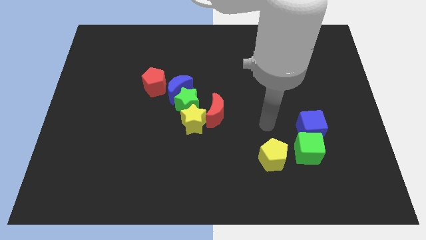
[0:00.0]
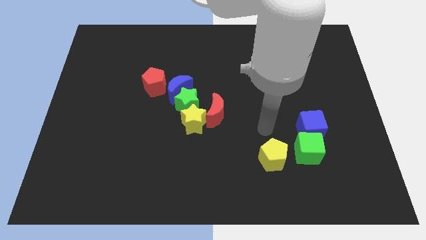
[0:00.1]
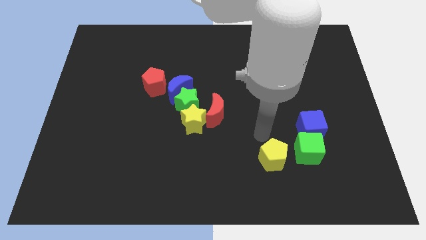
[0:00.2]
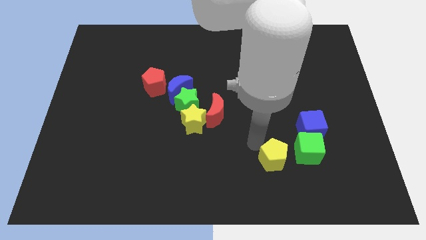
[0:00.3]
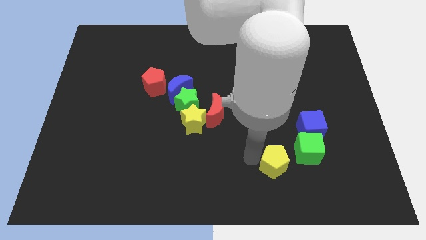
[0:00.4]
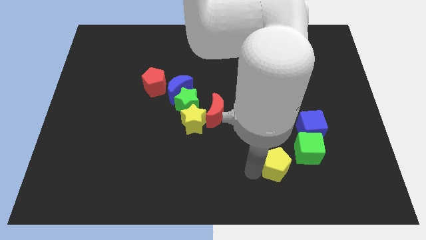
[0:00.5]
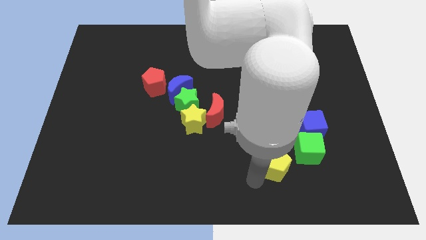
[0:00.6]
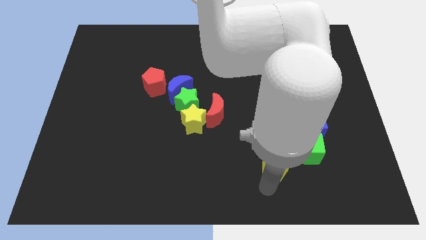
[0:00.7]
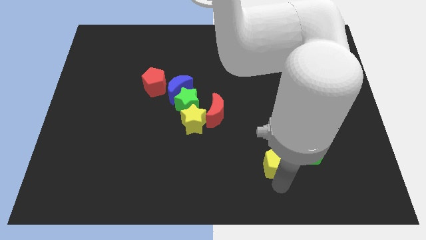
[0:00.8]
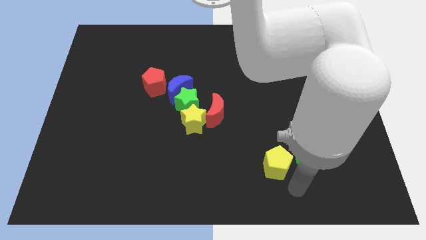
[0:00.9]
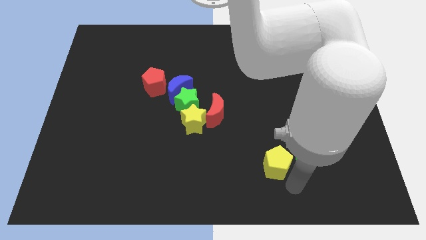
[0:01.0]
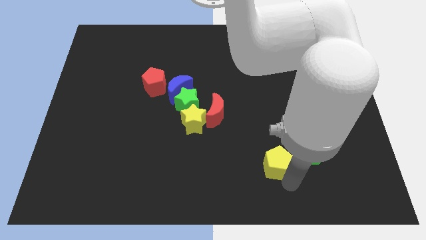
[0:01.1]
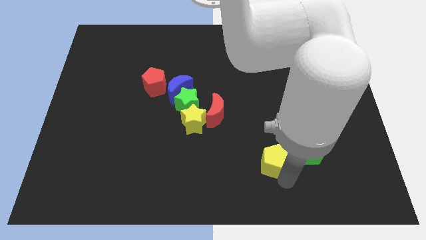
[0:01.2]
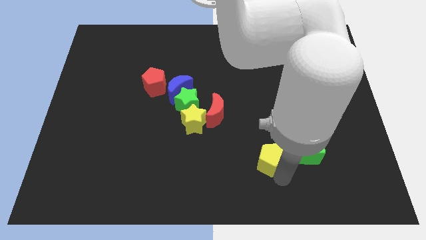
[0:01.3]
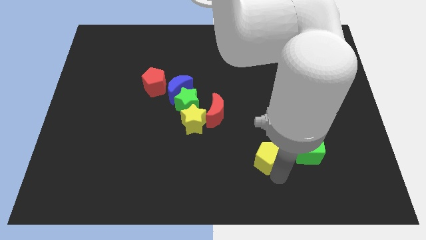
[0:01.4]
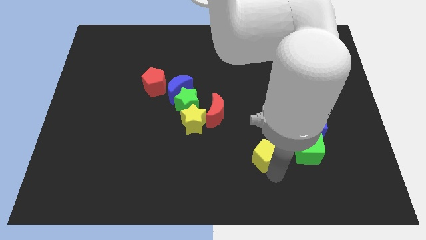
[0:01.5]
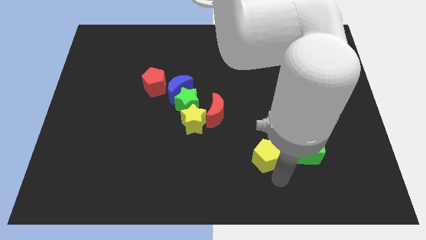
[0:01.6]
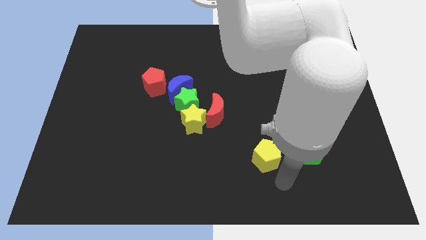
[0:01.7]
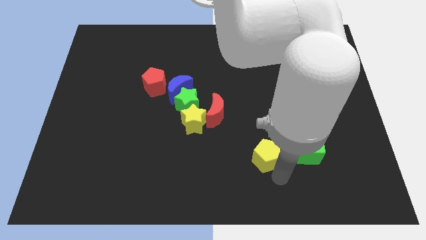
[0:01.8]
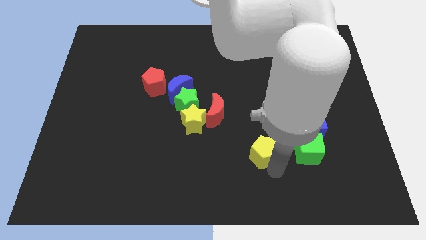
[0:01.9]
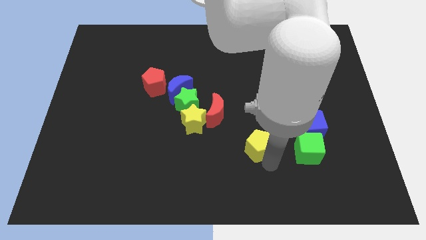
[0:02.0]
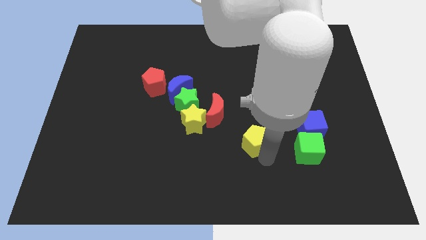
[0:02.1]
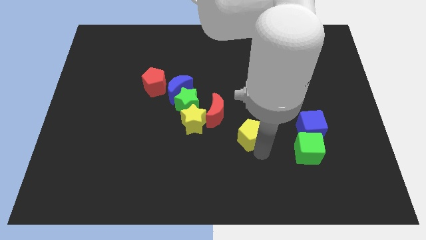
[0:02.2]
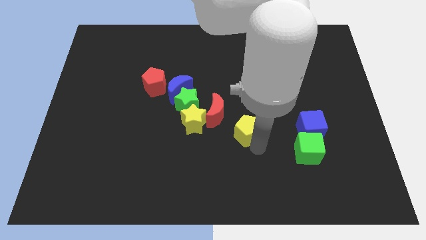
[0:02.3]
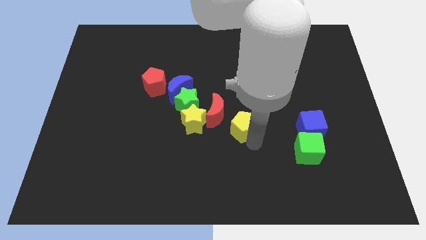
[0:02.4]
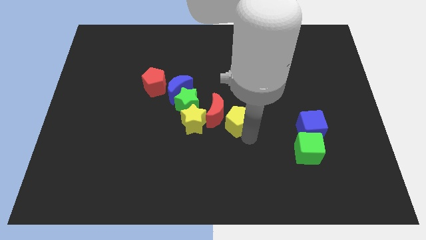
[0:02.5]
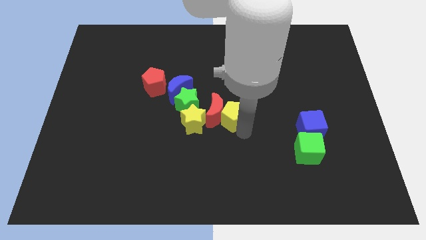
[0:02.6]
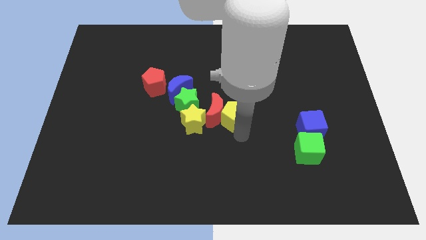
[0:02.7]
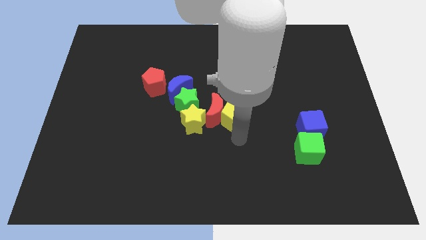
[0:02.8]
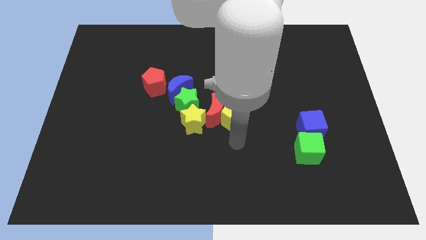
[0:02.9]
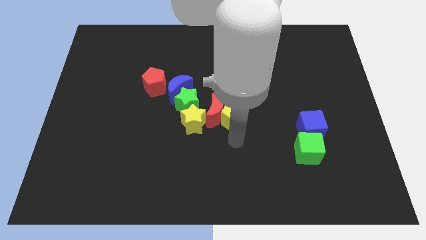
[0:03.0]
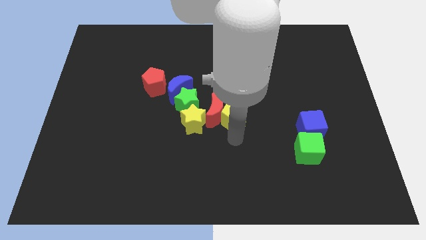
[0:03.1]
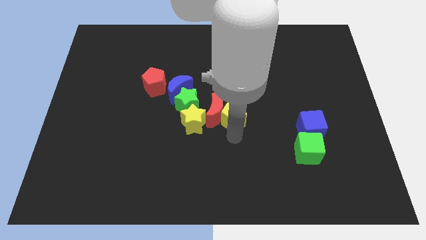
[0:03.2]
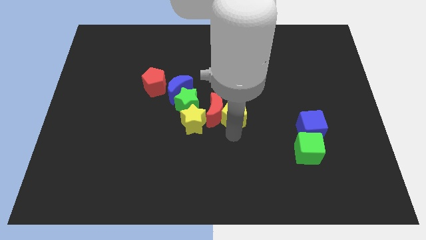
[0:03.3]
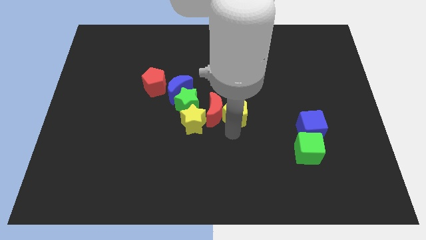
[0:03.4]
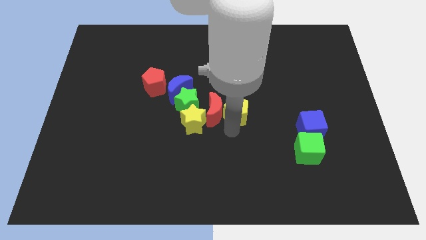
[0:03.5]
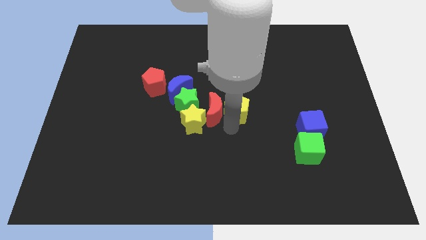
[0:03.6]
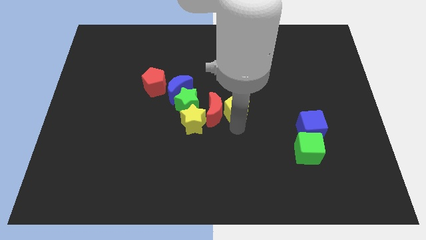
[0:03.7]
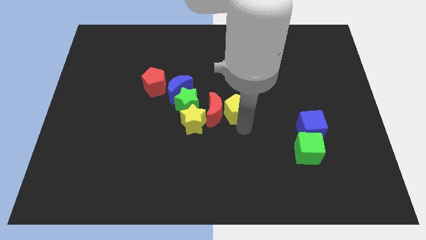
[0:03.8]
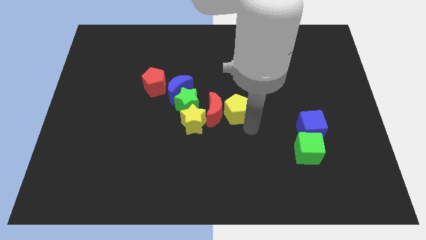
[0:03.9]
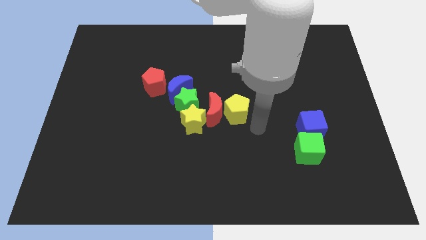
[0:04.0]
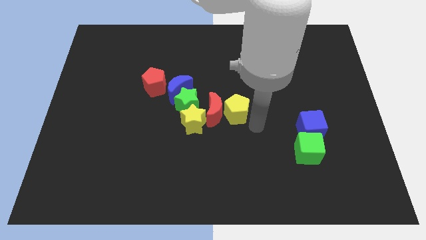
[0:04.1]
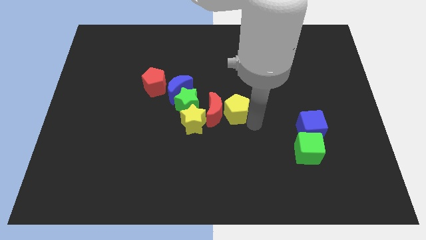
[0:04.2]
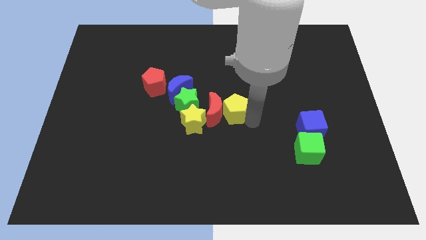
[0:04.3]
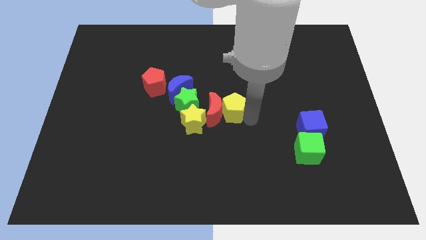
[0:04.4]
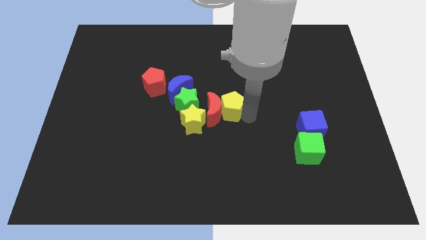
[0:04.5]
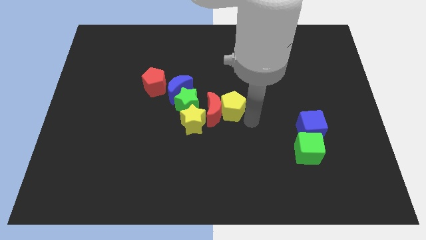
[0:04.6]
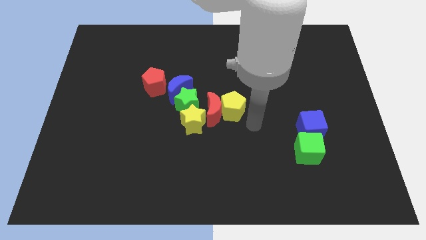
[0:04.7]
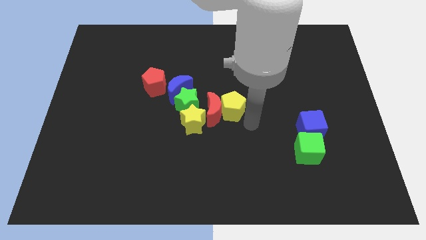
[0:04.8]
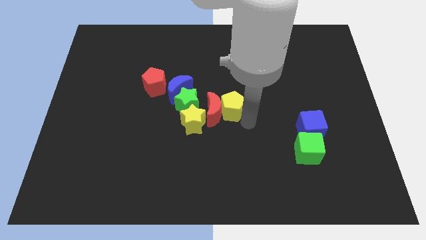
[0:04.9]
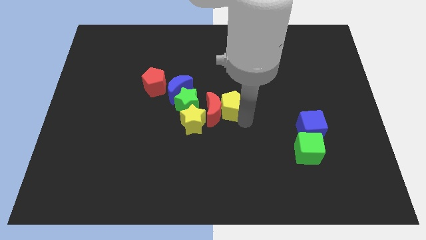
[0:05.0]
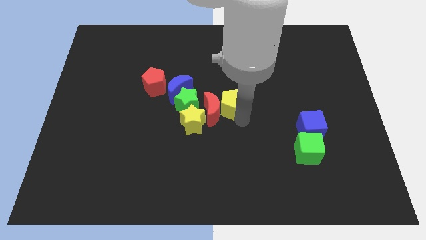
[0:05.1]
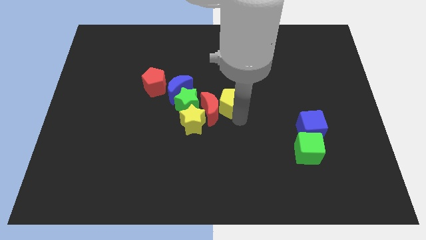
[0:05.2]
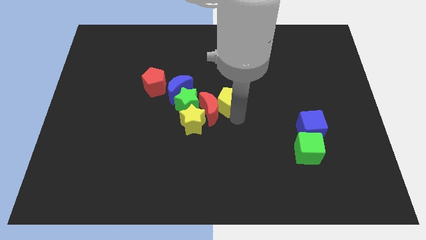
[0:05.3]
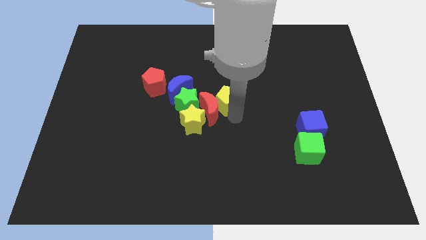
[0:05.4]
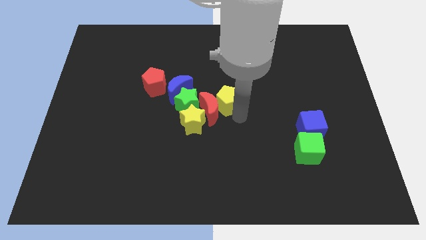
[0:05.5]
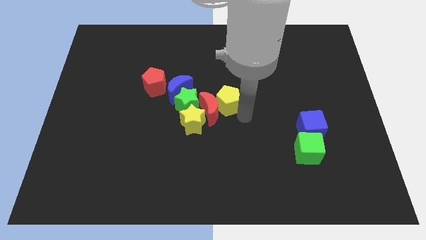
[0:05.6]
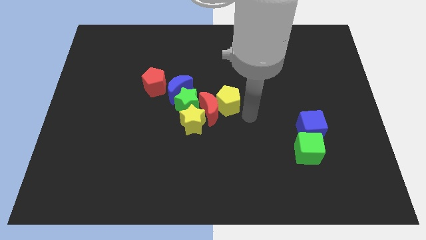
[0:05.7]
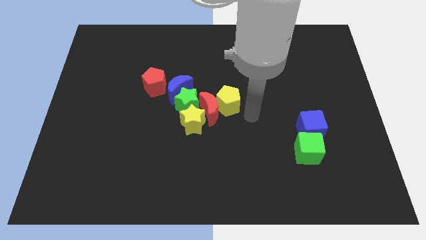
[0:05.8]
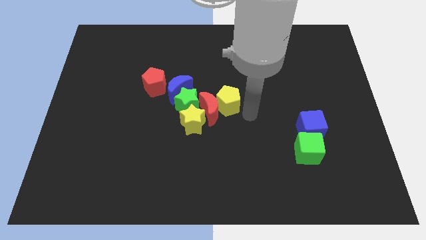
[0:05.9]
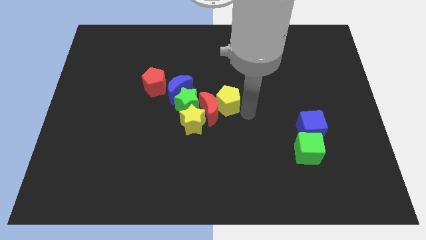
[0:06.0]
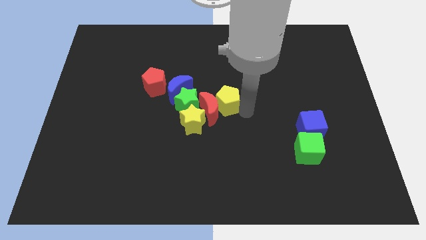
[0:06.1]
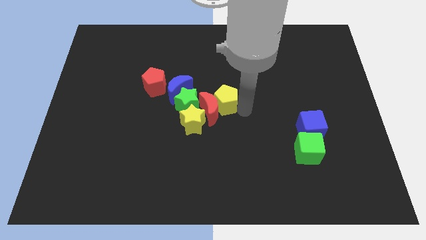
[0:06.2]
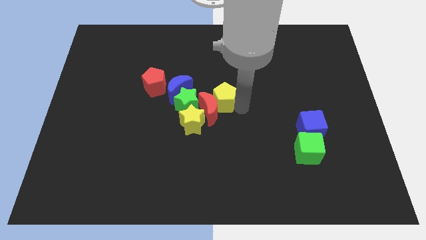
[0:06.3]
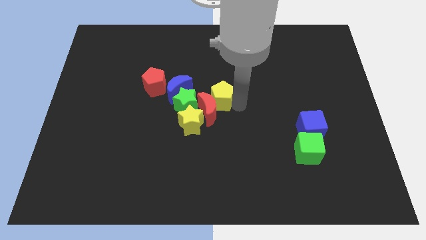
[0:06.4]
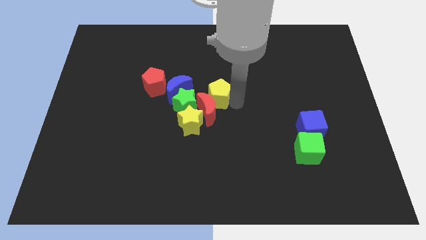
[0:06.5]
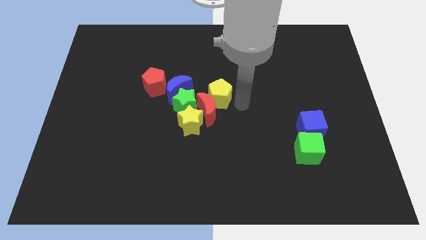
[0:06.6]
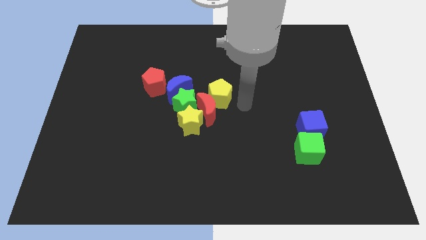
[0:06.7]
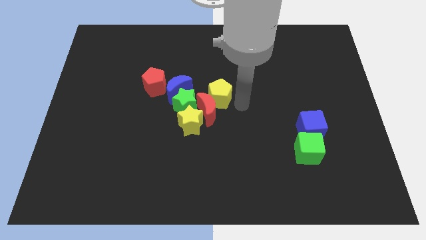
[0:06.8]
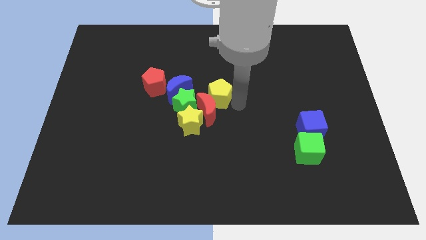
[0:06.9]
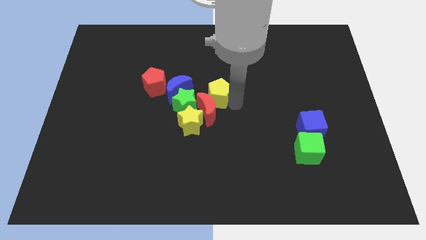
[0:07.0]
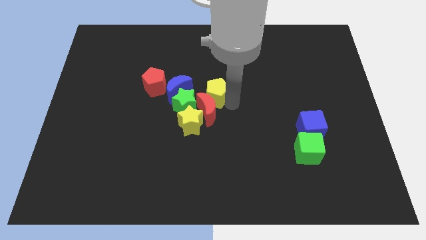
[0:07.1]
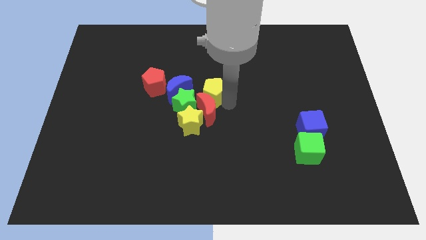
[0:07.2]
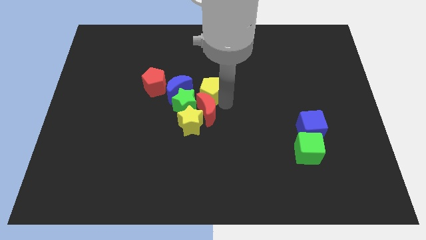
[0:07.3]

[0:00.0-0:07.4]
slide the yellow pentagon above the yellow star

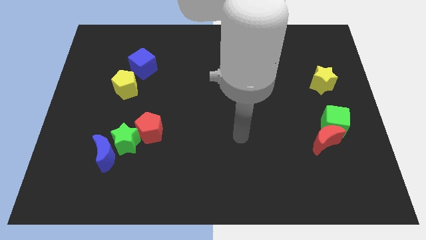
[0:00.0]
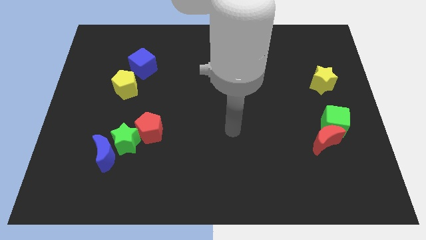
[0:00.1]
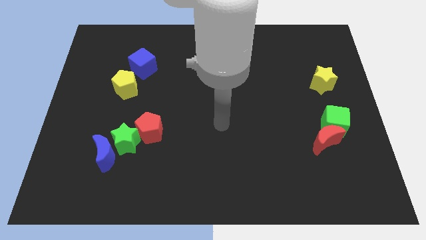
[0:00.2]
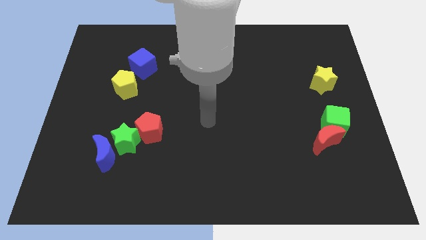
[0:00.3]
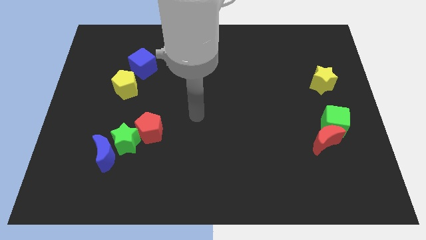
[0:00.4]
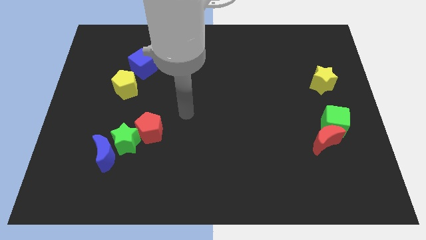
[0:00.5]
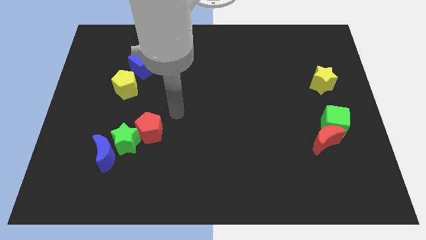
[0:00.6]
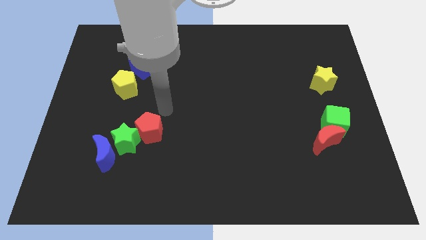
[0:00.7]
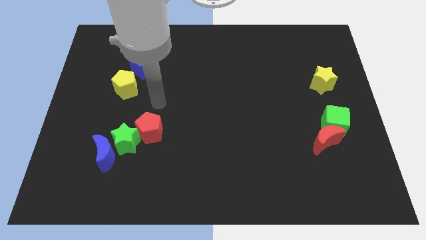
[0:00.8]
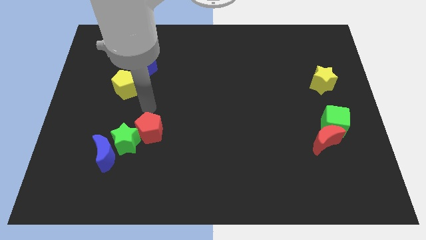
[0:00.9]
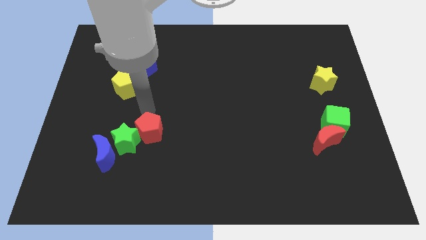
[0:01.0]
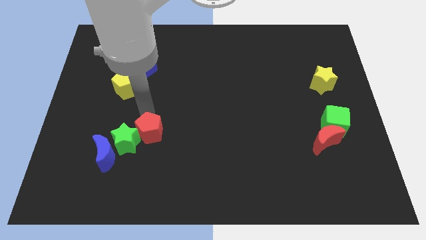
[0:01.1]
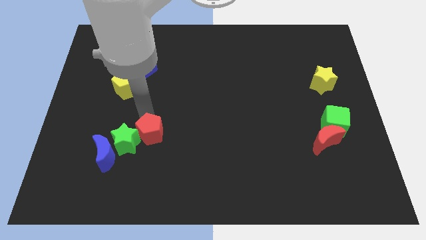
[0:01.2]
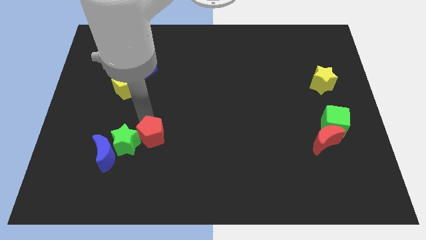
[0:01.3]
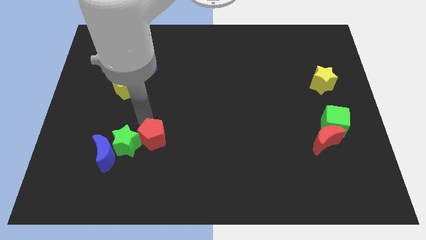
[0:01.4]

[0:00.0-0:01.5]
push the red pentagon right of the blue moon
